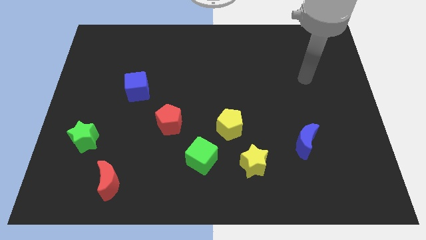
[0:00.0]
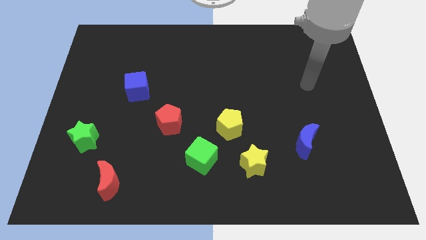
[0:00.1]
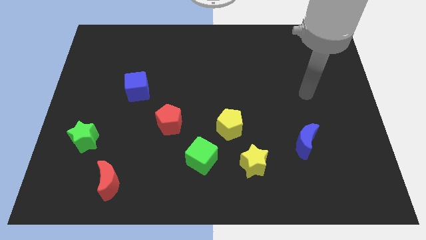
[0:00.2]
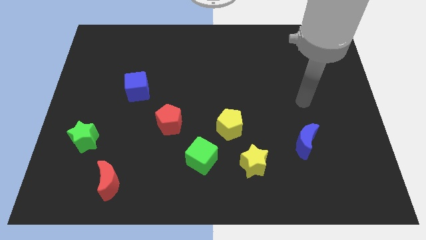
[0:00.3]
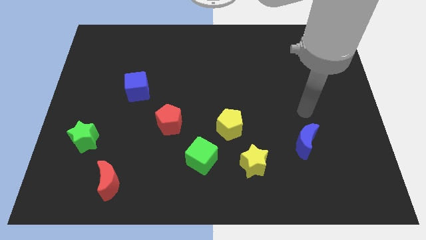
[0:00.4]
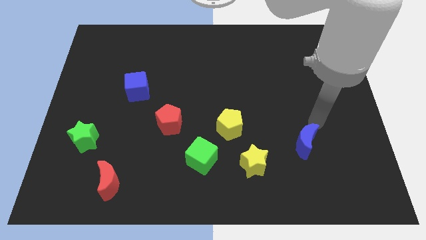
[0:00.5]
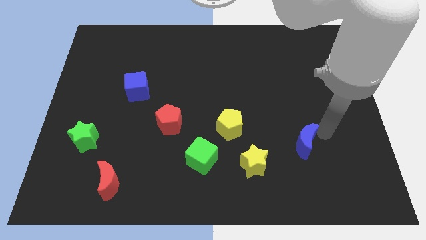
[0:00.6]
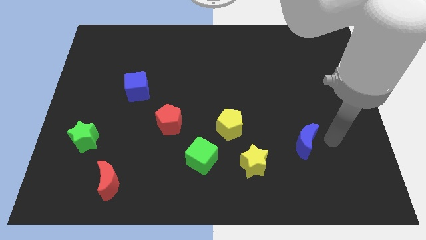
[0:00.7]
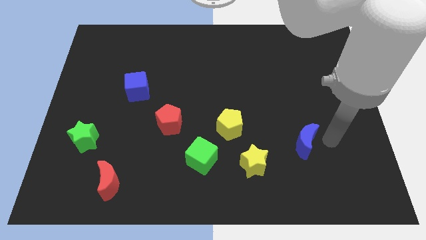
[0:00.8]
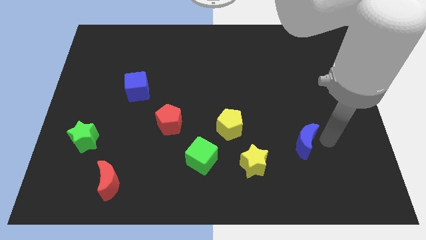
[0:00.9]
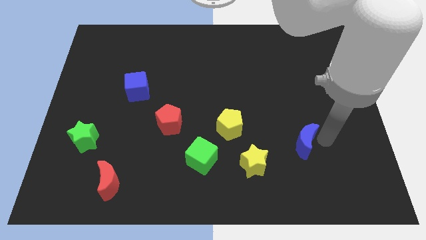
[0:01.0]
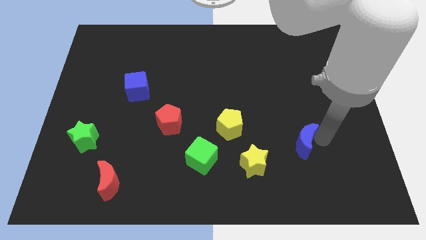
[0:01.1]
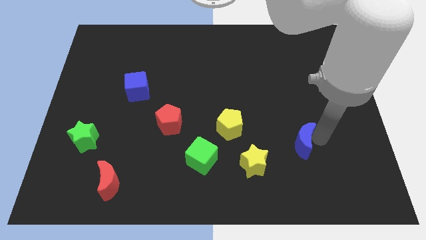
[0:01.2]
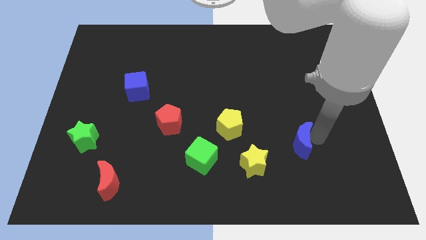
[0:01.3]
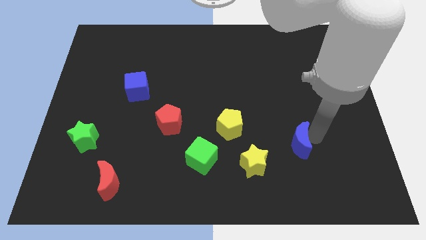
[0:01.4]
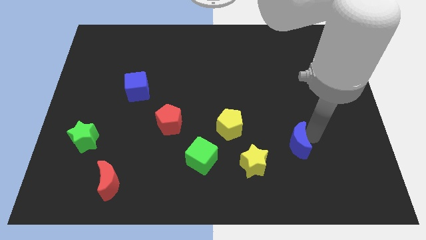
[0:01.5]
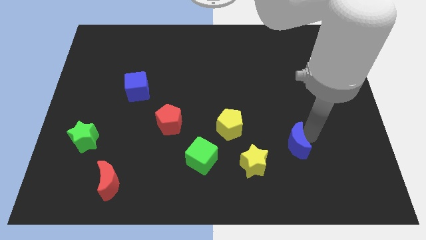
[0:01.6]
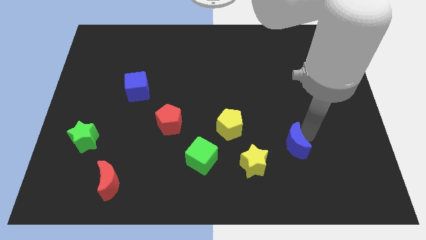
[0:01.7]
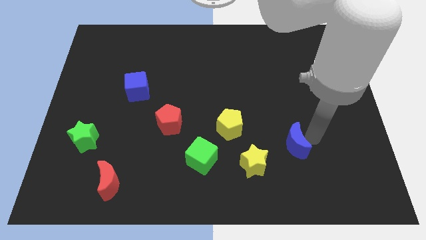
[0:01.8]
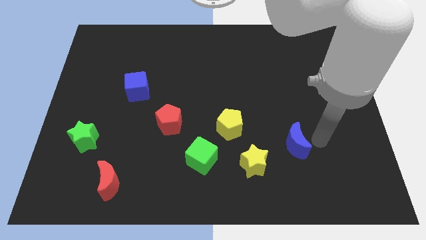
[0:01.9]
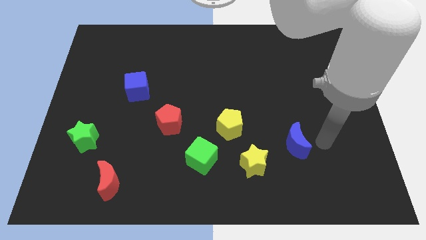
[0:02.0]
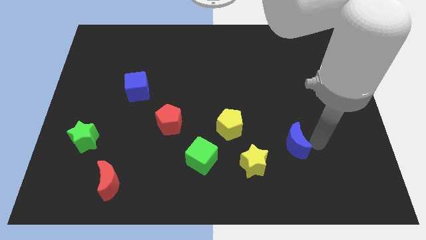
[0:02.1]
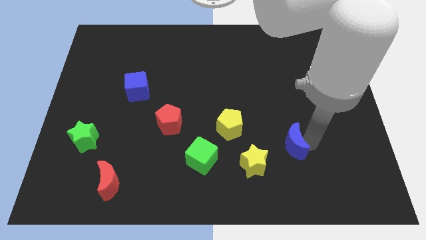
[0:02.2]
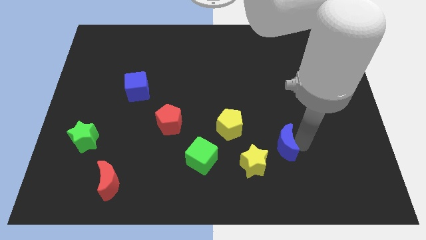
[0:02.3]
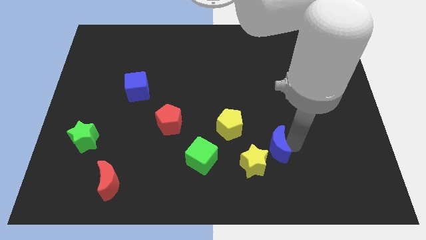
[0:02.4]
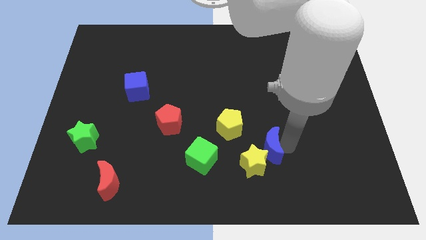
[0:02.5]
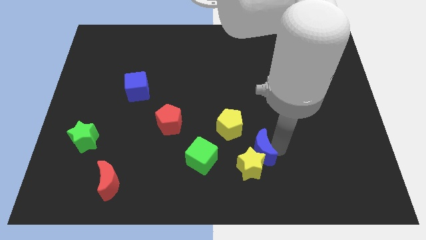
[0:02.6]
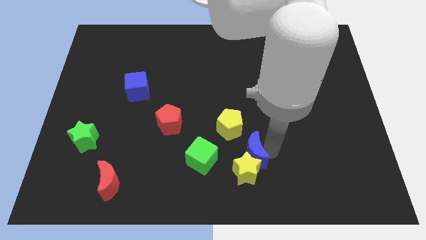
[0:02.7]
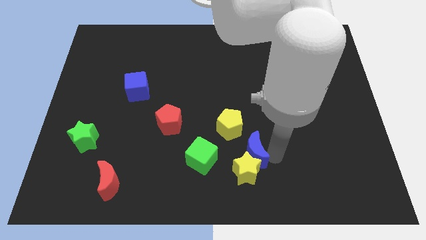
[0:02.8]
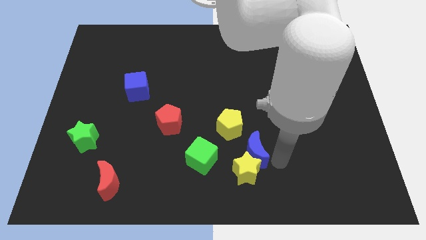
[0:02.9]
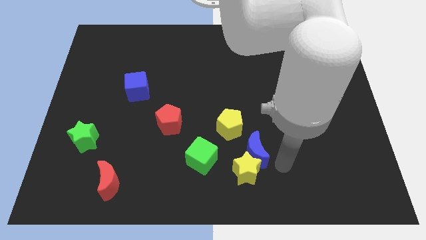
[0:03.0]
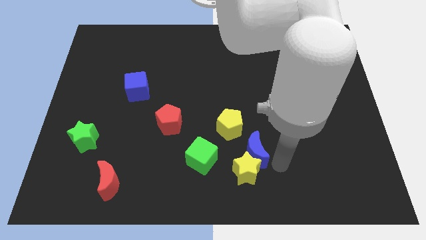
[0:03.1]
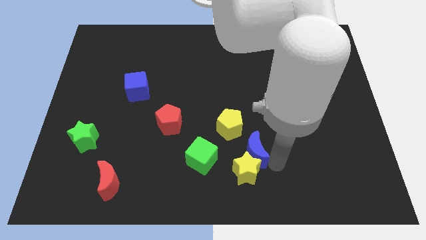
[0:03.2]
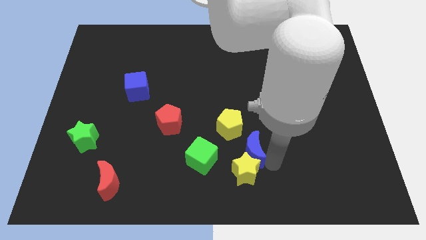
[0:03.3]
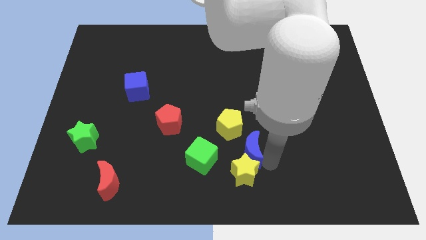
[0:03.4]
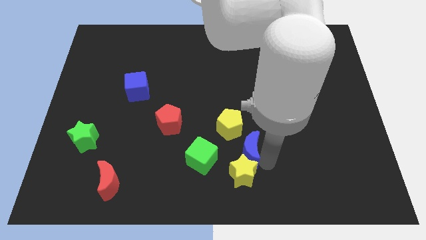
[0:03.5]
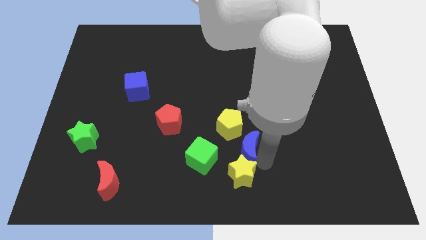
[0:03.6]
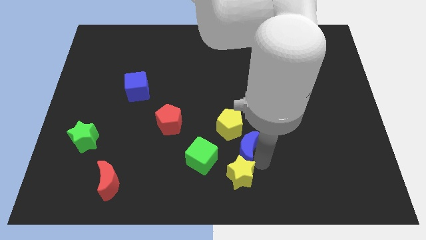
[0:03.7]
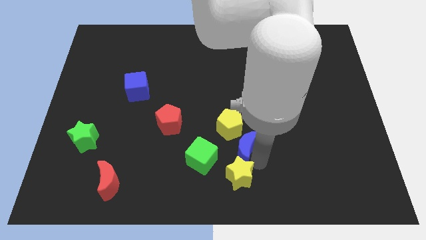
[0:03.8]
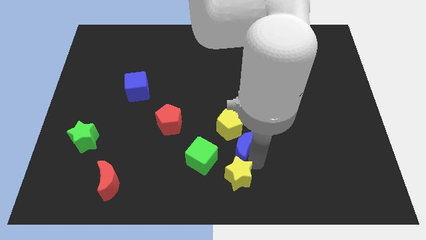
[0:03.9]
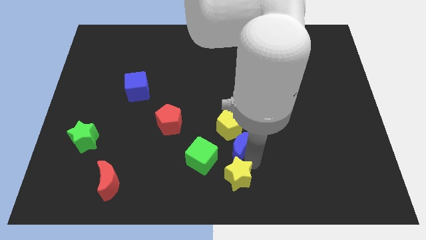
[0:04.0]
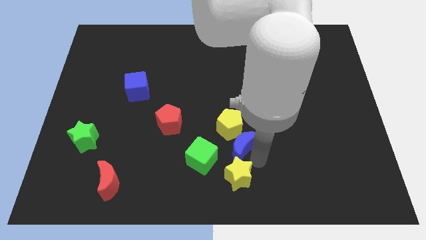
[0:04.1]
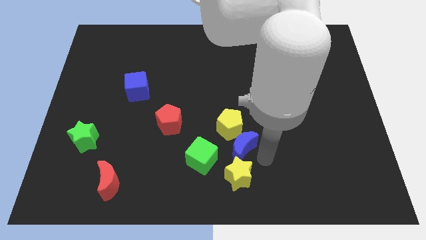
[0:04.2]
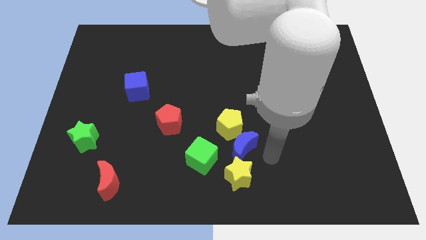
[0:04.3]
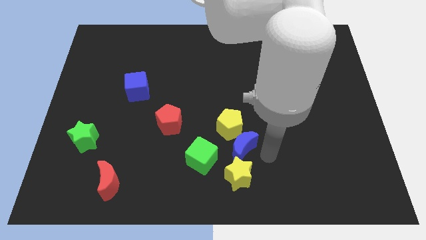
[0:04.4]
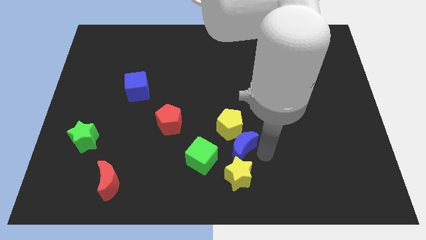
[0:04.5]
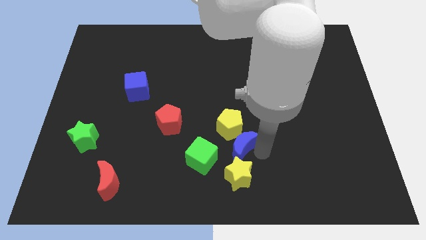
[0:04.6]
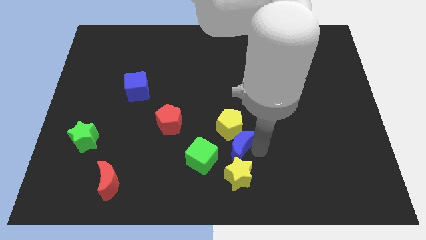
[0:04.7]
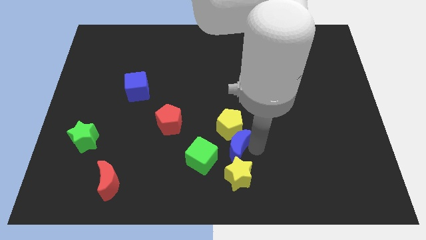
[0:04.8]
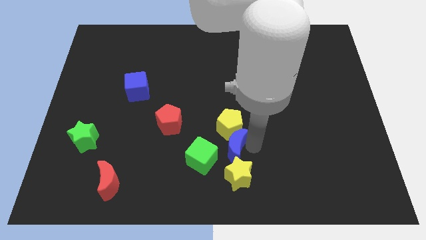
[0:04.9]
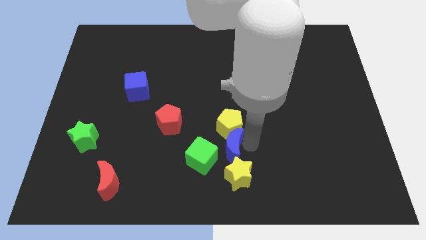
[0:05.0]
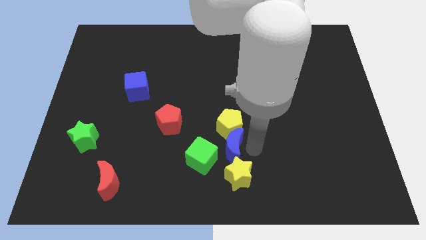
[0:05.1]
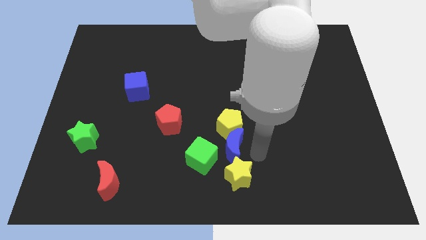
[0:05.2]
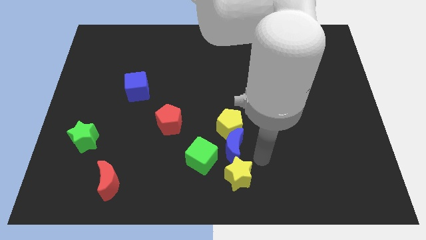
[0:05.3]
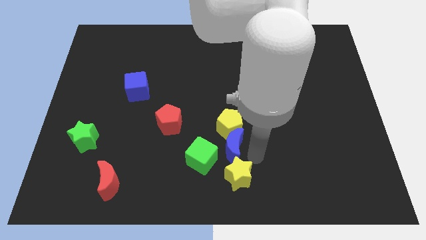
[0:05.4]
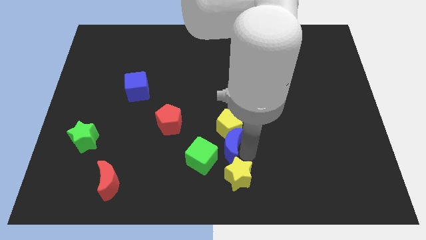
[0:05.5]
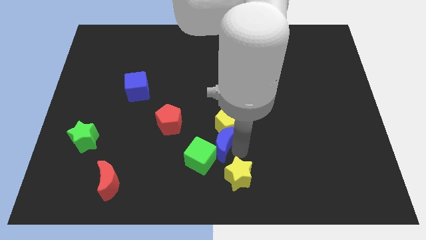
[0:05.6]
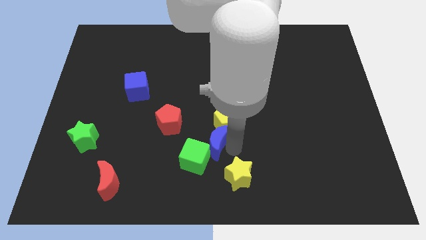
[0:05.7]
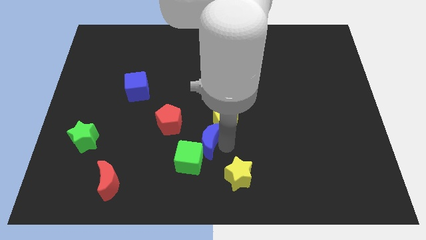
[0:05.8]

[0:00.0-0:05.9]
move the blue moon to the left

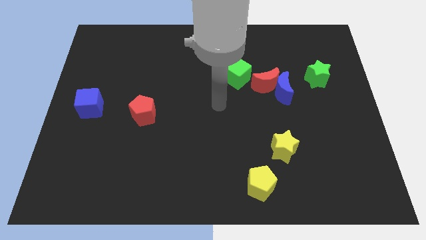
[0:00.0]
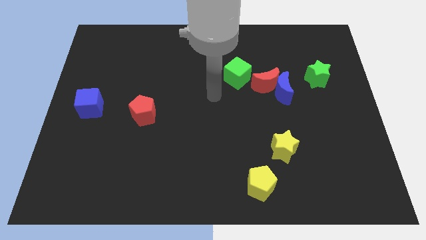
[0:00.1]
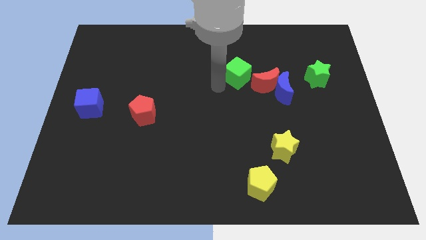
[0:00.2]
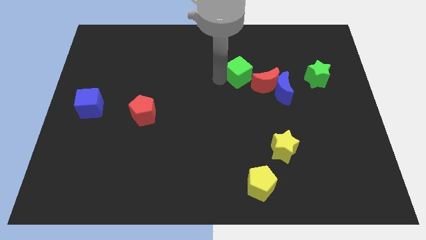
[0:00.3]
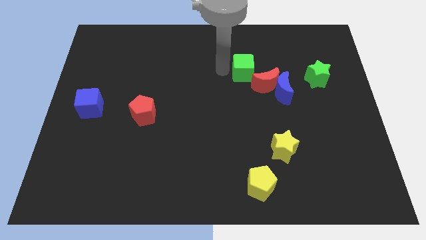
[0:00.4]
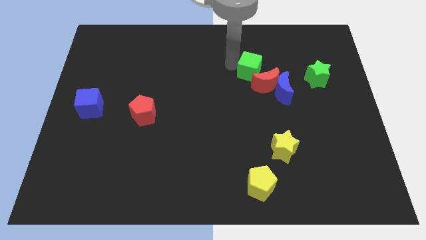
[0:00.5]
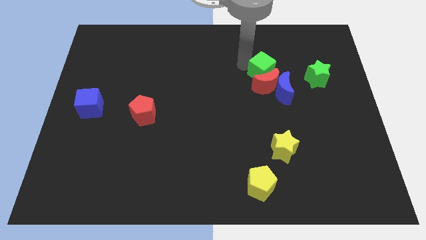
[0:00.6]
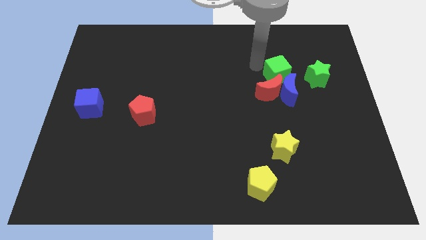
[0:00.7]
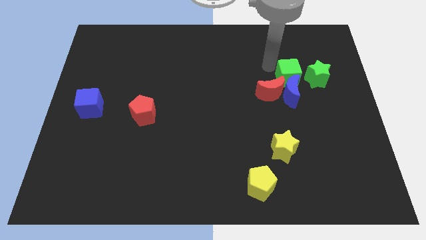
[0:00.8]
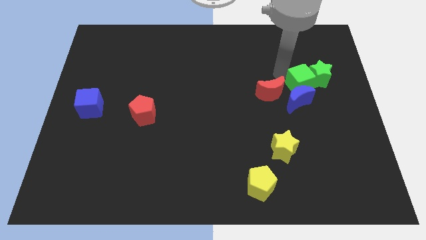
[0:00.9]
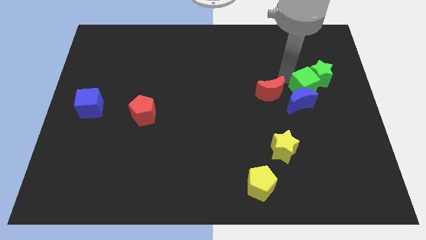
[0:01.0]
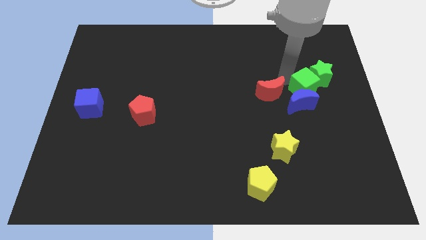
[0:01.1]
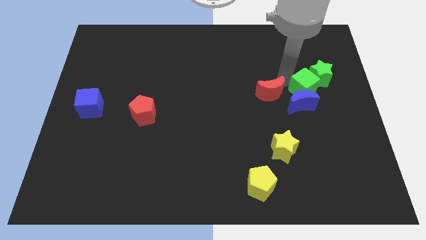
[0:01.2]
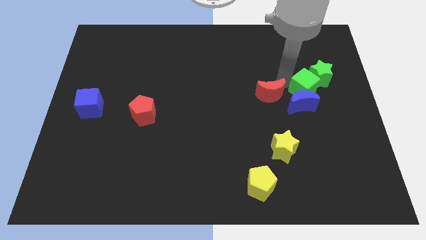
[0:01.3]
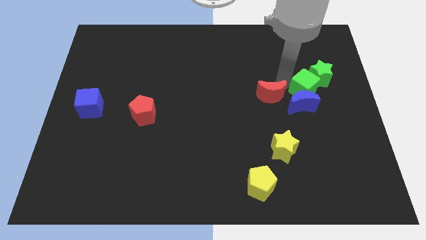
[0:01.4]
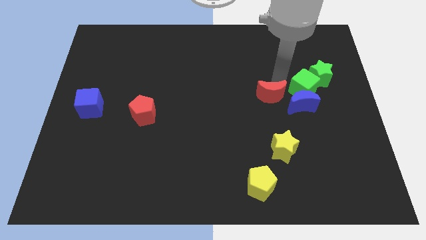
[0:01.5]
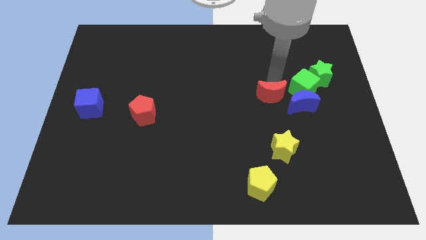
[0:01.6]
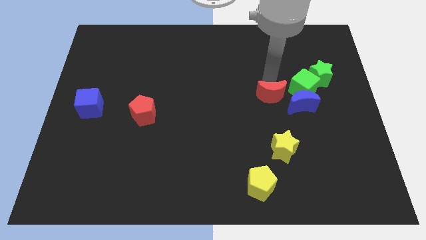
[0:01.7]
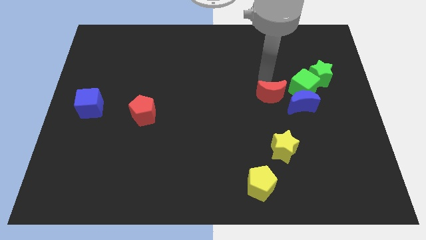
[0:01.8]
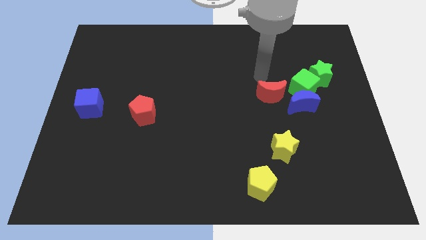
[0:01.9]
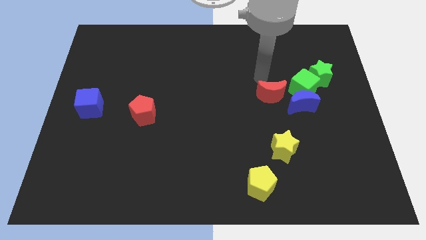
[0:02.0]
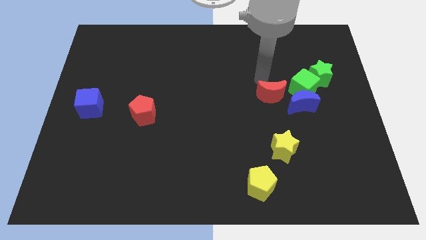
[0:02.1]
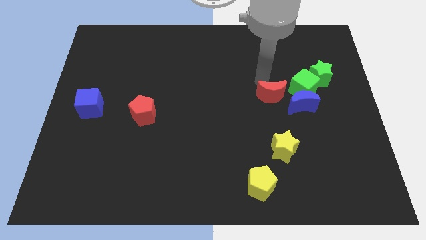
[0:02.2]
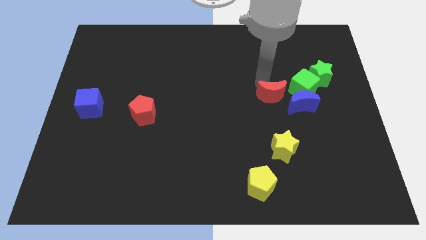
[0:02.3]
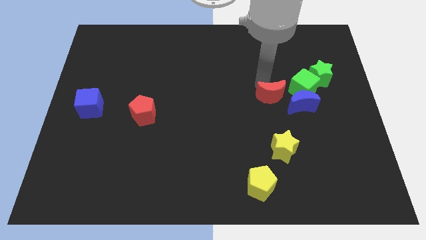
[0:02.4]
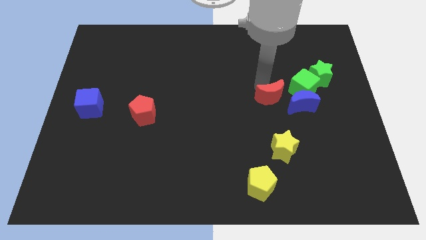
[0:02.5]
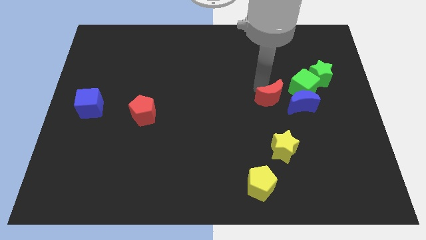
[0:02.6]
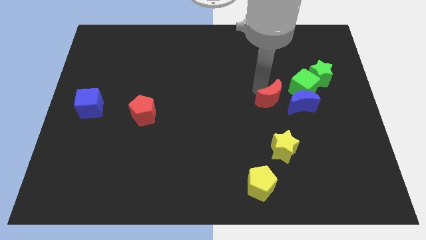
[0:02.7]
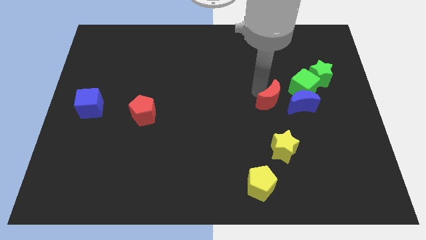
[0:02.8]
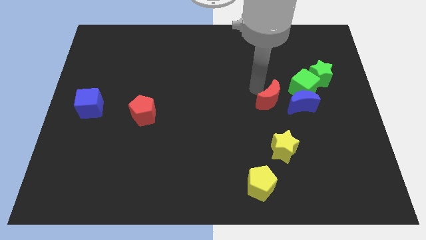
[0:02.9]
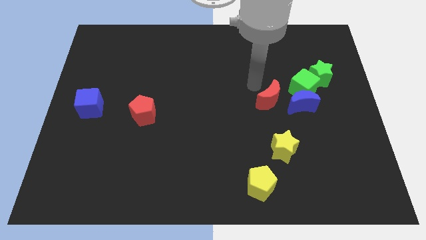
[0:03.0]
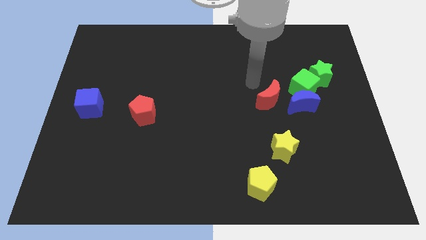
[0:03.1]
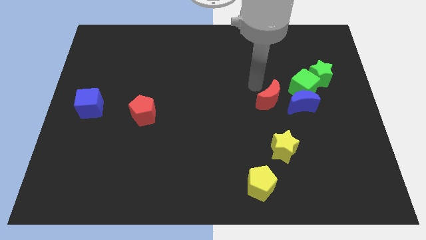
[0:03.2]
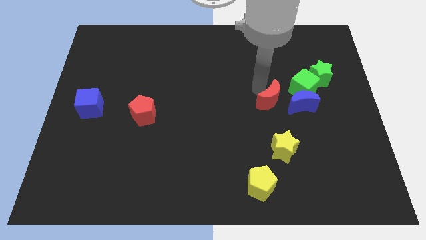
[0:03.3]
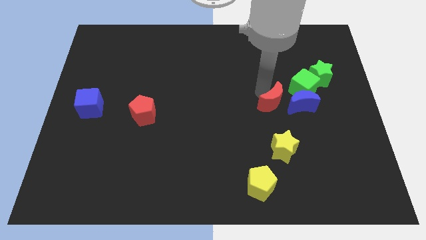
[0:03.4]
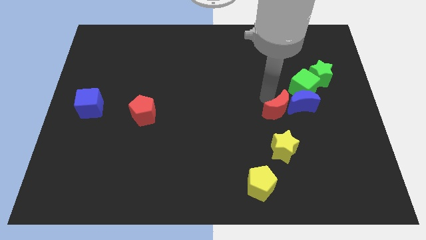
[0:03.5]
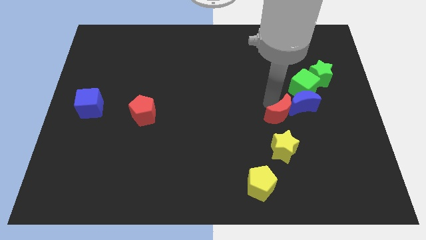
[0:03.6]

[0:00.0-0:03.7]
slightly push the red moon diagonally downwards and to the right
